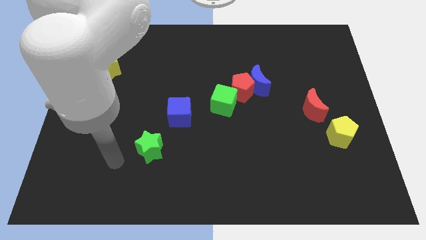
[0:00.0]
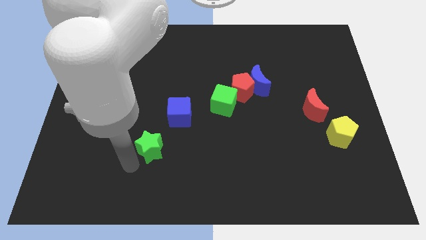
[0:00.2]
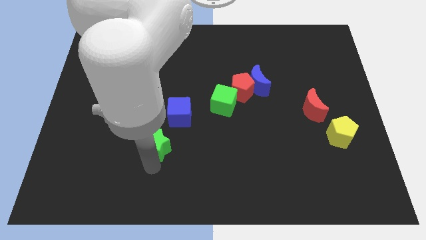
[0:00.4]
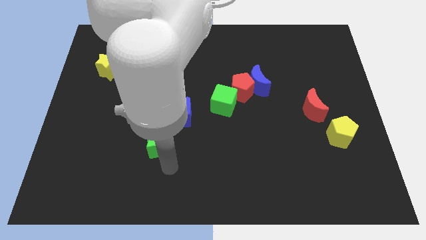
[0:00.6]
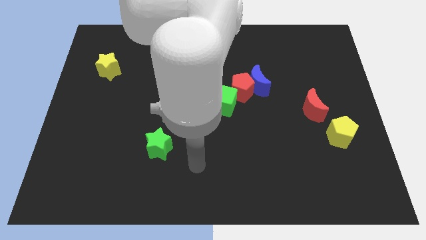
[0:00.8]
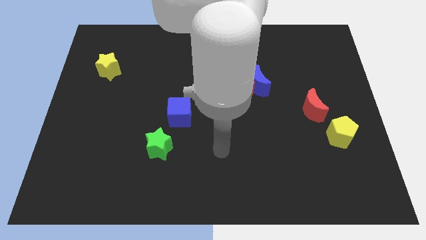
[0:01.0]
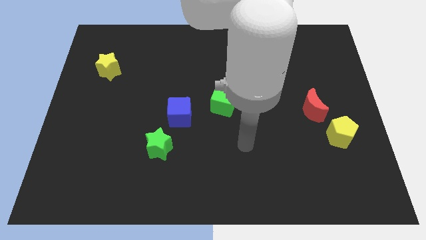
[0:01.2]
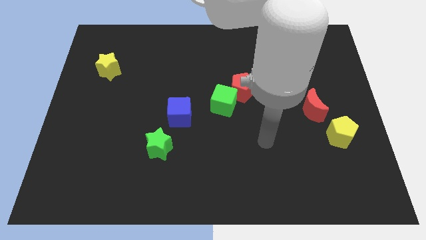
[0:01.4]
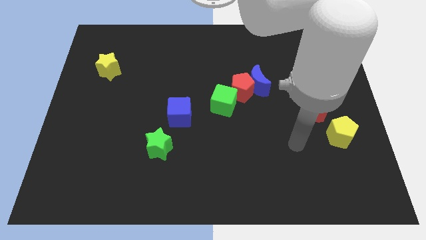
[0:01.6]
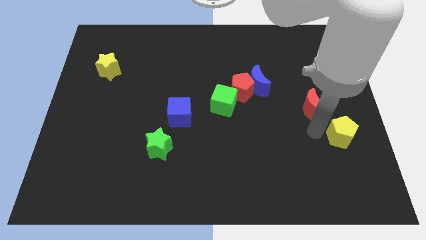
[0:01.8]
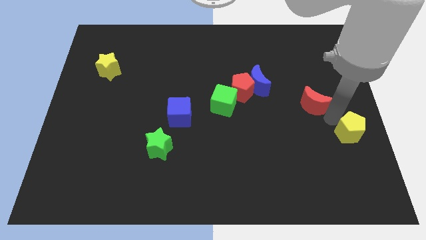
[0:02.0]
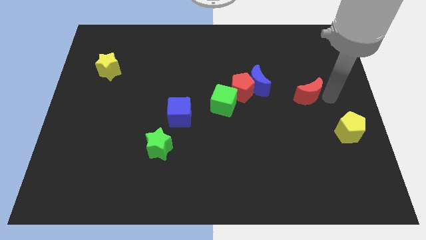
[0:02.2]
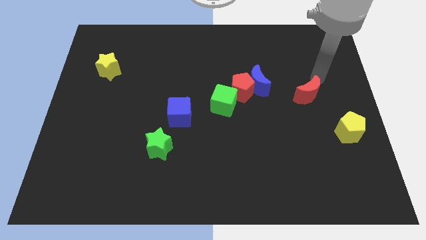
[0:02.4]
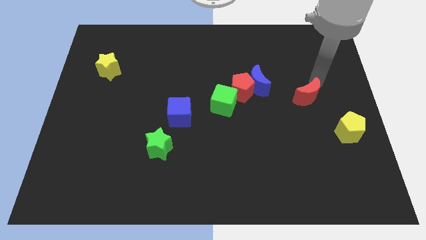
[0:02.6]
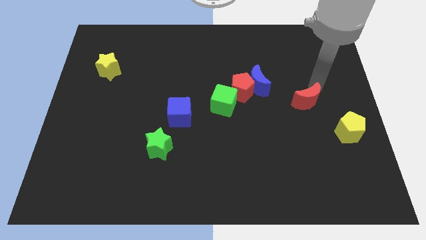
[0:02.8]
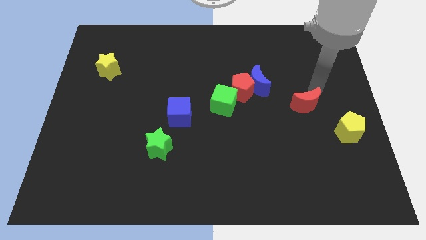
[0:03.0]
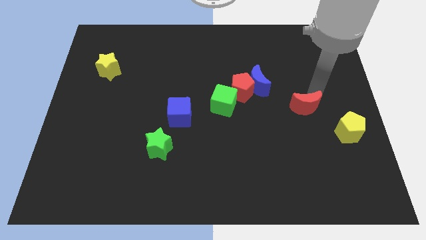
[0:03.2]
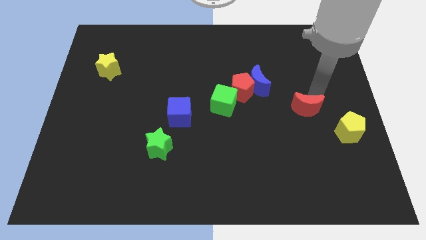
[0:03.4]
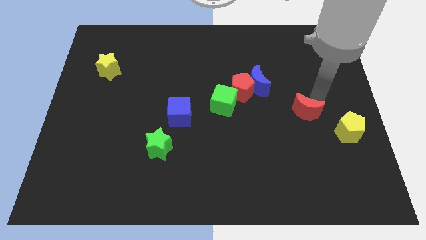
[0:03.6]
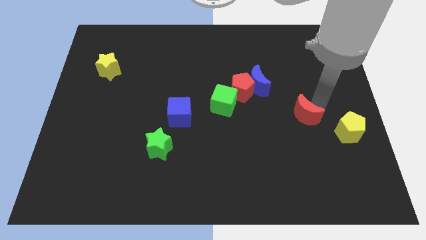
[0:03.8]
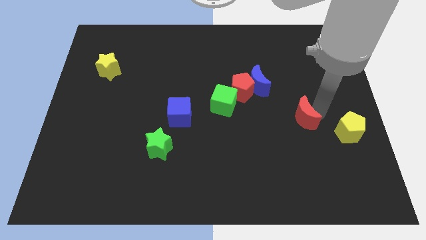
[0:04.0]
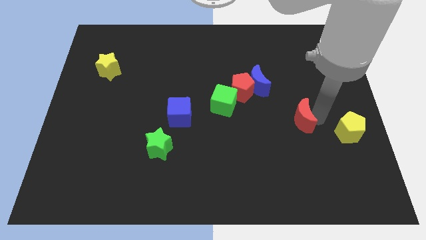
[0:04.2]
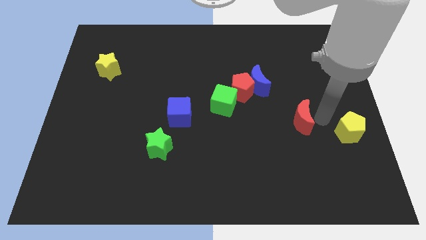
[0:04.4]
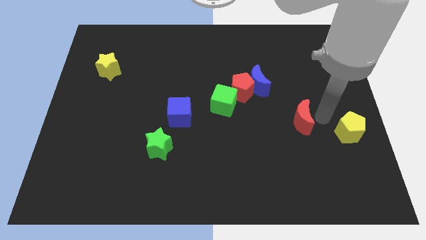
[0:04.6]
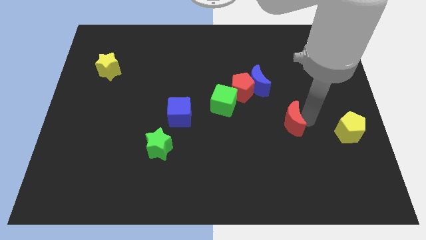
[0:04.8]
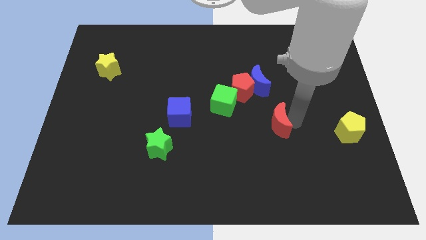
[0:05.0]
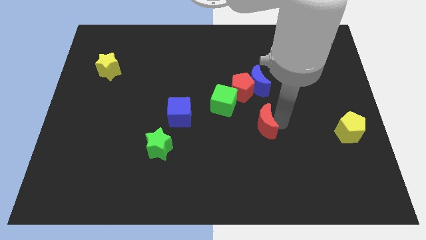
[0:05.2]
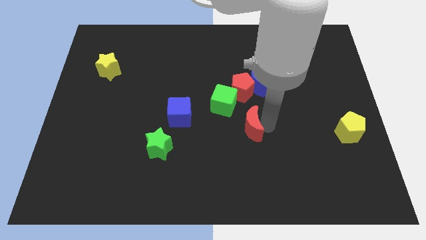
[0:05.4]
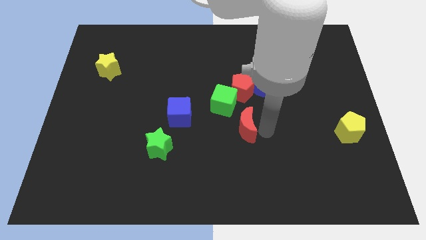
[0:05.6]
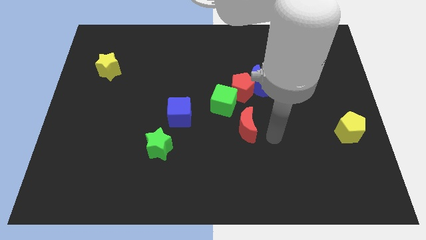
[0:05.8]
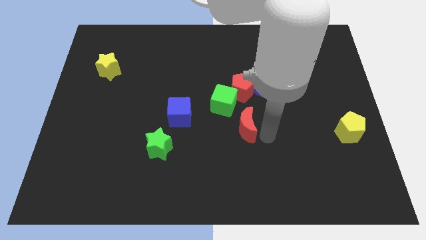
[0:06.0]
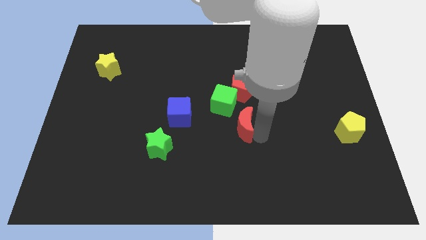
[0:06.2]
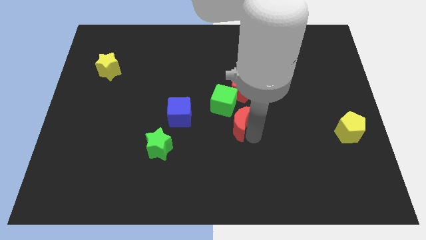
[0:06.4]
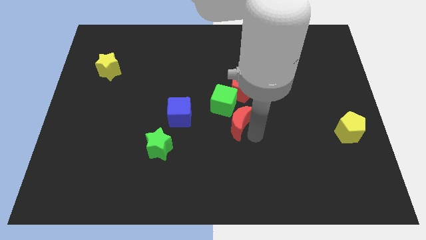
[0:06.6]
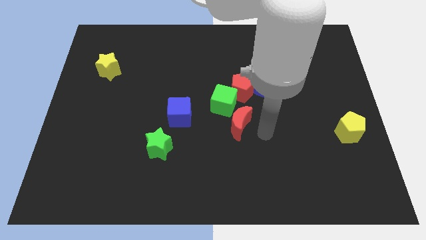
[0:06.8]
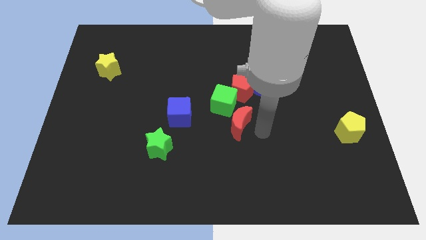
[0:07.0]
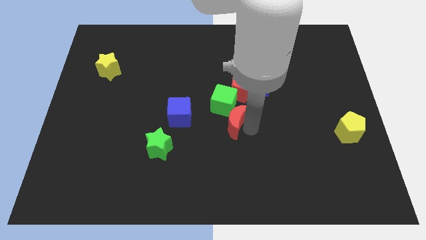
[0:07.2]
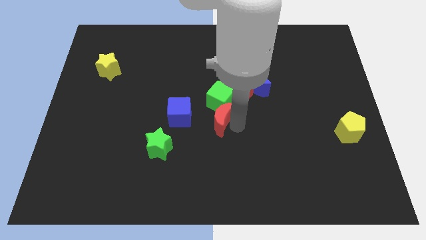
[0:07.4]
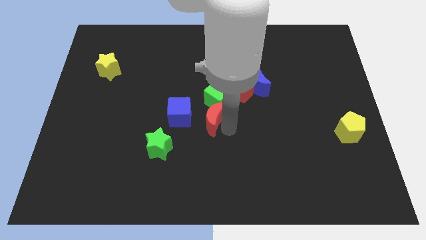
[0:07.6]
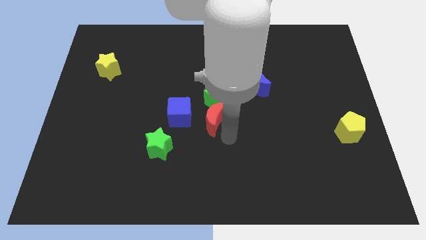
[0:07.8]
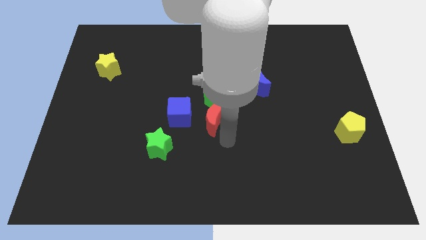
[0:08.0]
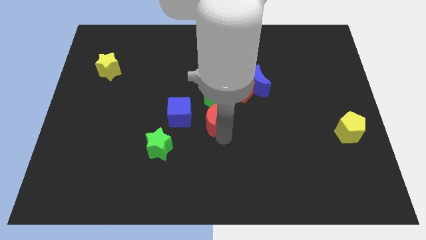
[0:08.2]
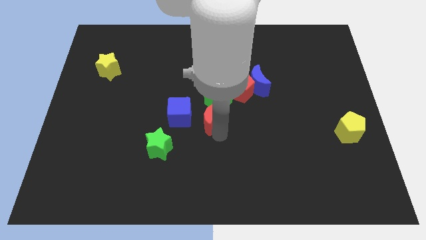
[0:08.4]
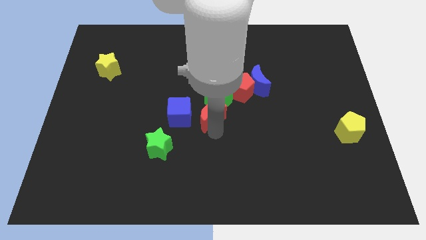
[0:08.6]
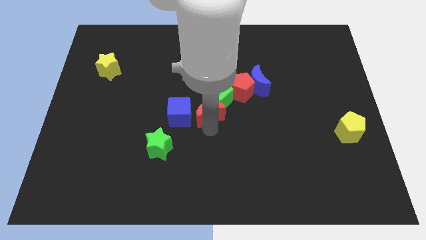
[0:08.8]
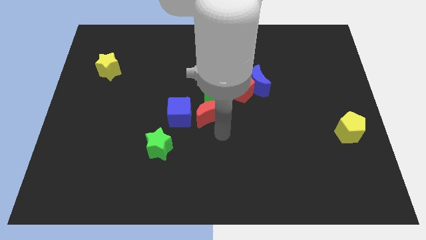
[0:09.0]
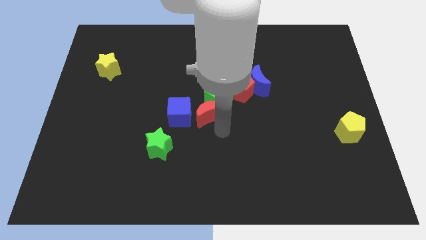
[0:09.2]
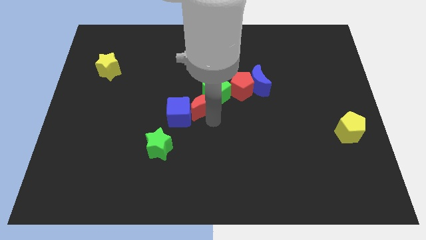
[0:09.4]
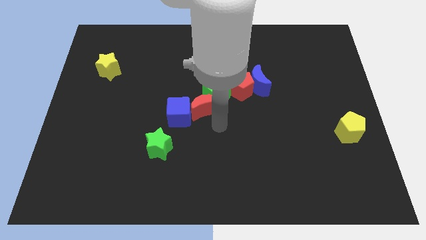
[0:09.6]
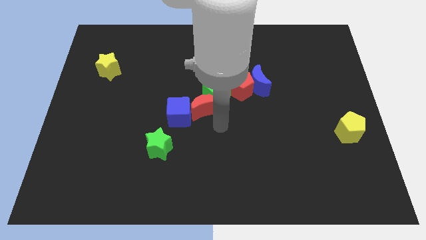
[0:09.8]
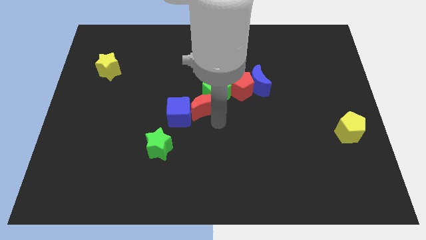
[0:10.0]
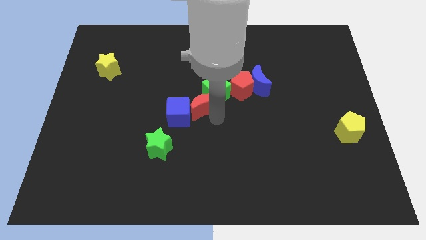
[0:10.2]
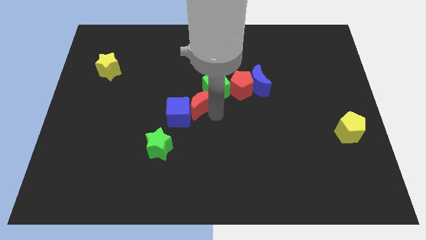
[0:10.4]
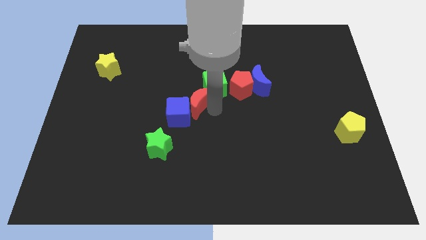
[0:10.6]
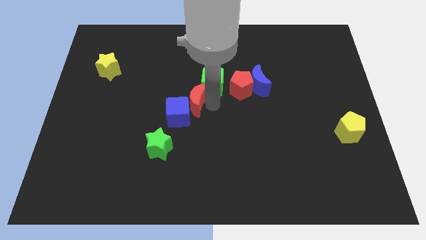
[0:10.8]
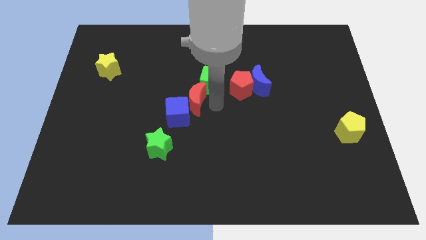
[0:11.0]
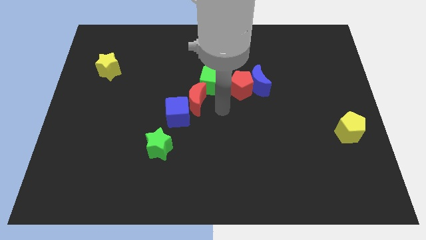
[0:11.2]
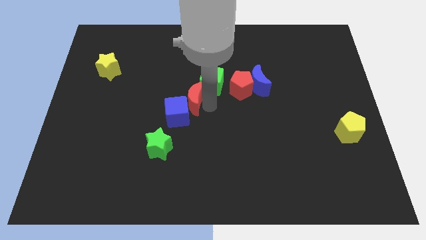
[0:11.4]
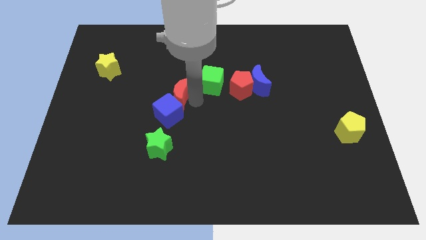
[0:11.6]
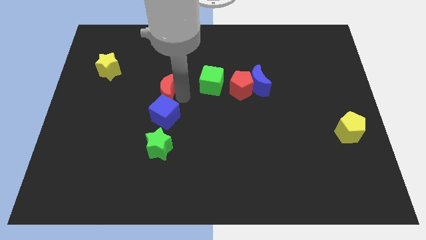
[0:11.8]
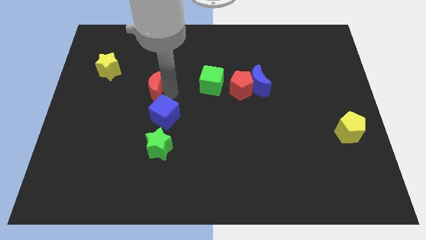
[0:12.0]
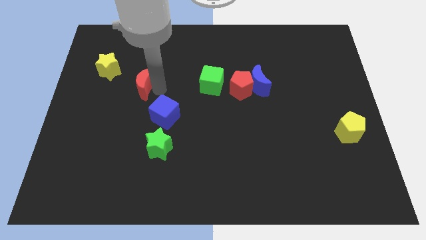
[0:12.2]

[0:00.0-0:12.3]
move the red moon diagonally down and to the right of the yellow star
